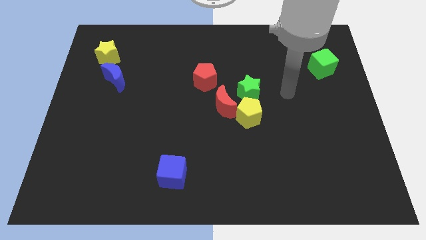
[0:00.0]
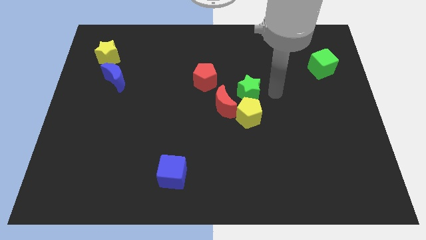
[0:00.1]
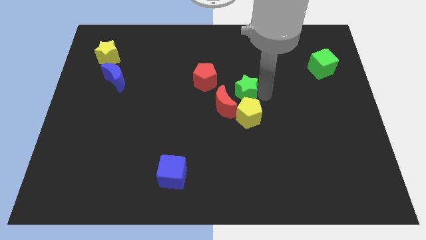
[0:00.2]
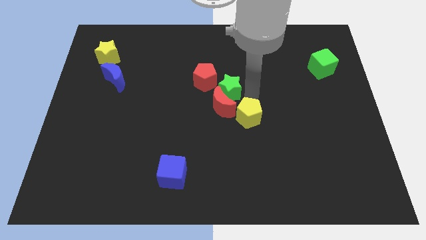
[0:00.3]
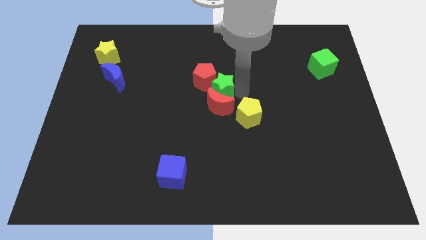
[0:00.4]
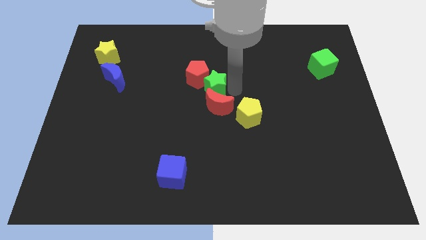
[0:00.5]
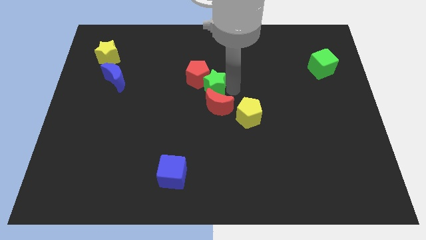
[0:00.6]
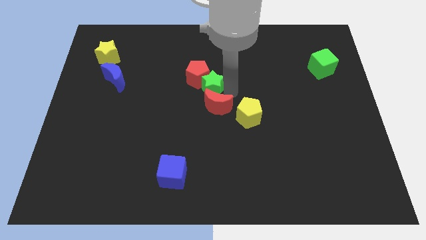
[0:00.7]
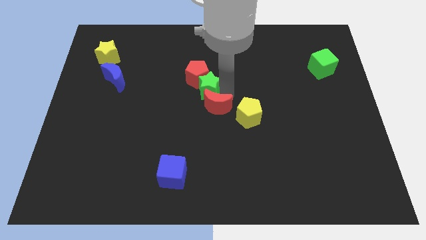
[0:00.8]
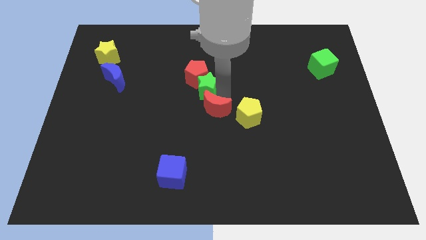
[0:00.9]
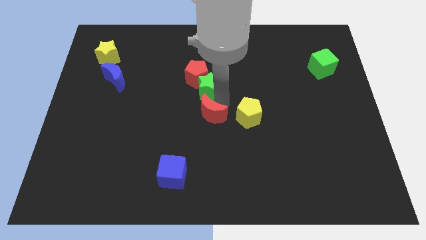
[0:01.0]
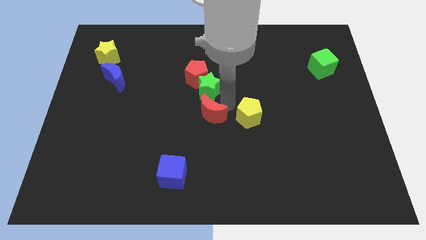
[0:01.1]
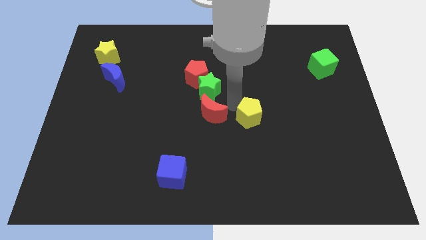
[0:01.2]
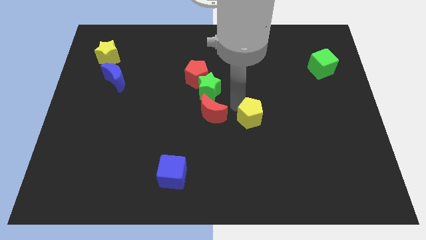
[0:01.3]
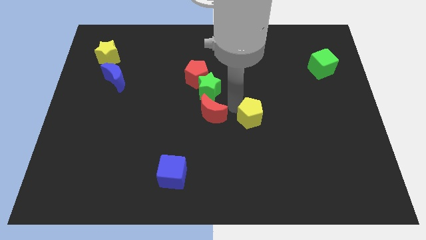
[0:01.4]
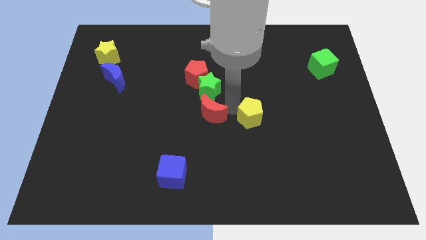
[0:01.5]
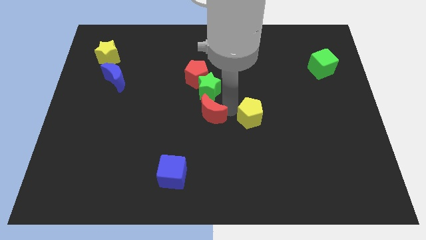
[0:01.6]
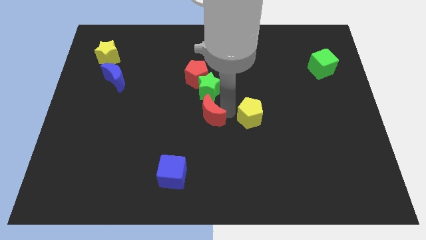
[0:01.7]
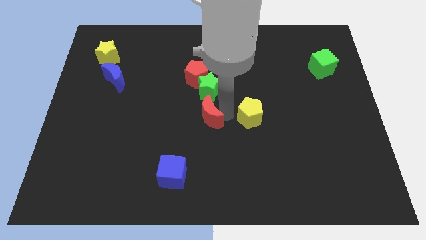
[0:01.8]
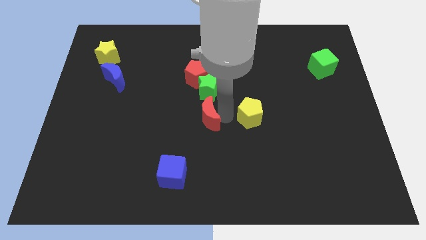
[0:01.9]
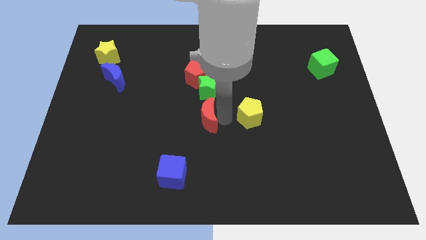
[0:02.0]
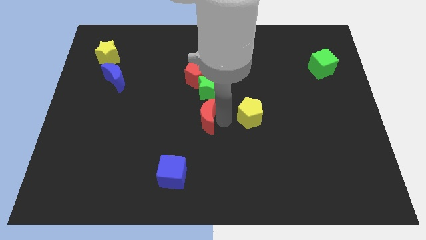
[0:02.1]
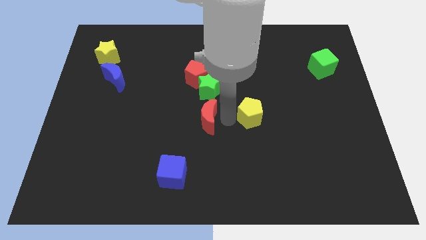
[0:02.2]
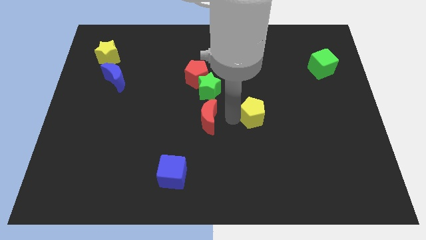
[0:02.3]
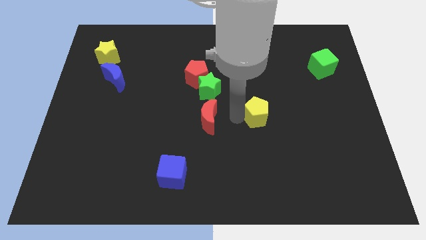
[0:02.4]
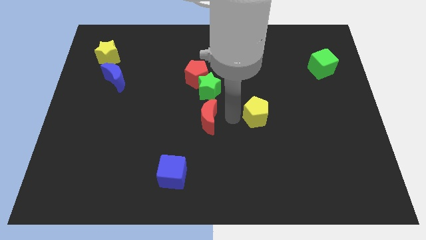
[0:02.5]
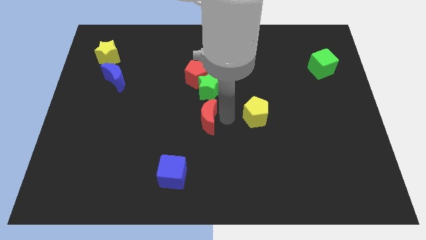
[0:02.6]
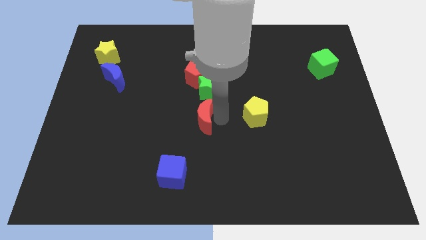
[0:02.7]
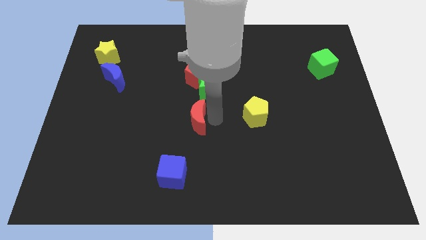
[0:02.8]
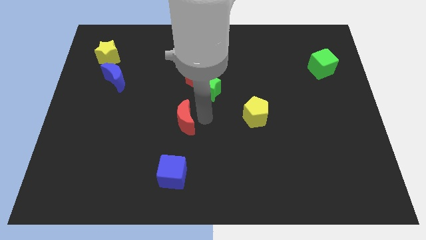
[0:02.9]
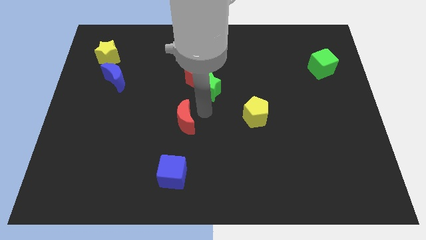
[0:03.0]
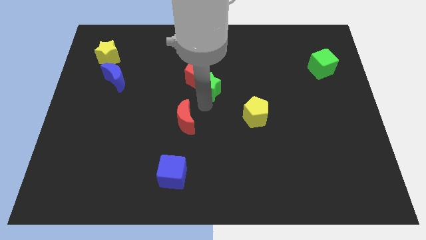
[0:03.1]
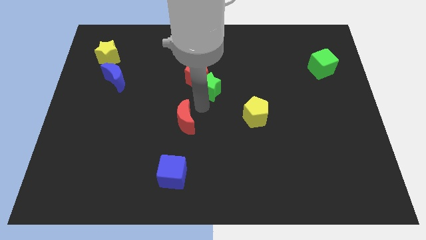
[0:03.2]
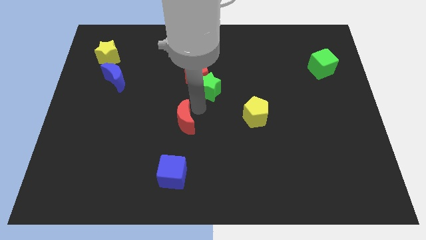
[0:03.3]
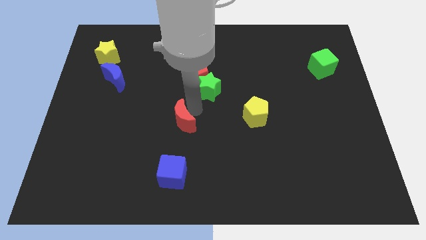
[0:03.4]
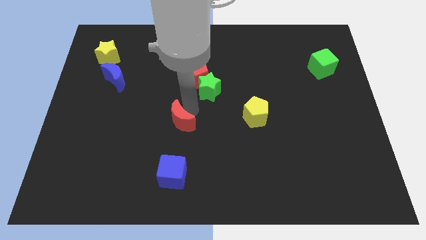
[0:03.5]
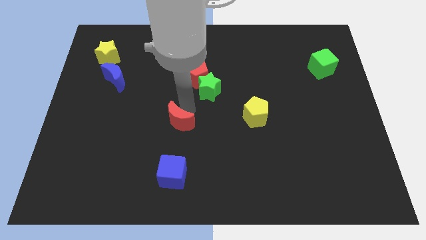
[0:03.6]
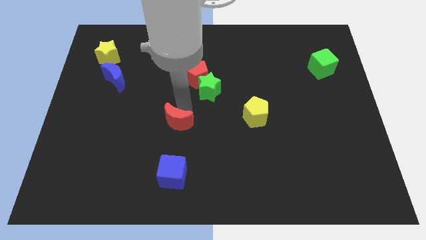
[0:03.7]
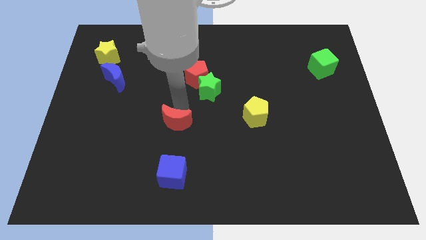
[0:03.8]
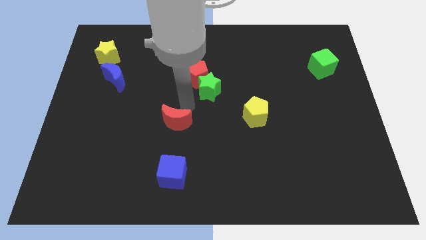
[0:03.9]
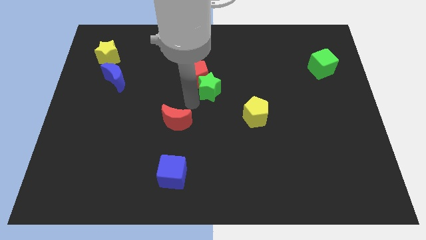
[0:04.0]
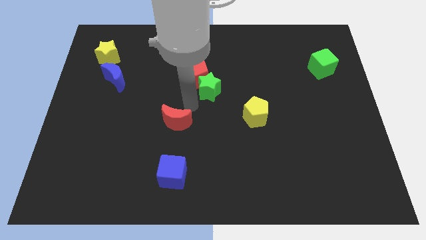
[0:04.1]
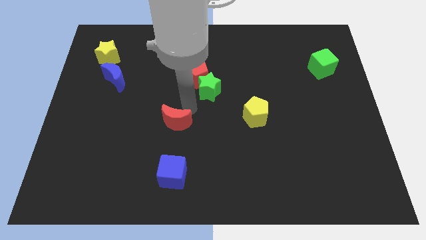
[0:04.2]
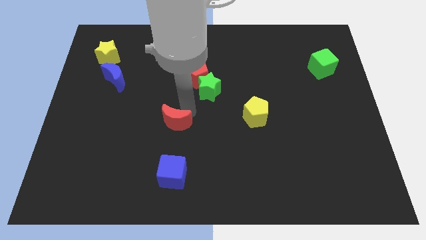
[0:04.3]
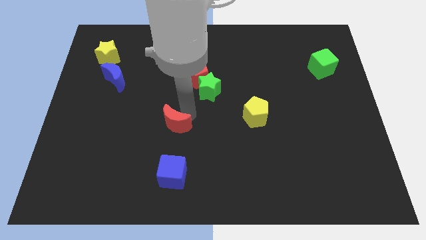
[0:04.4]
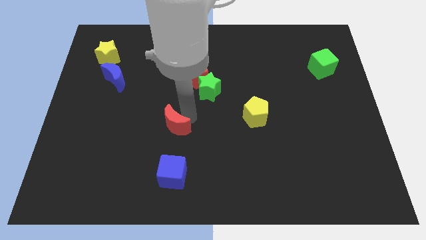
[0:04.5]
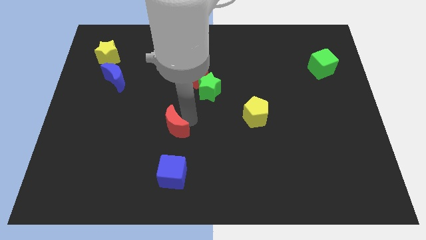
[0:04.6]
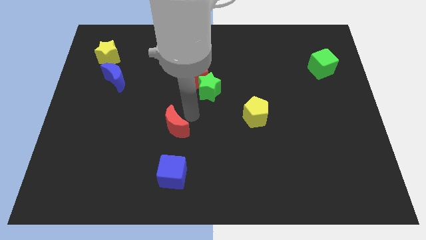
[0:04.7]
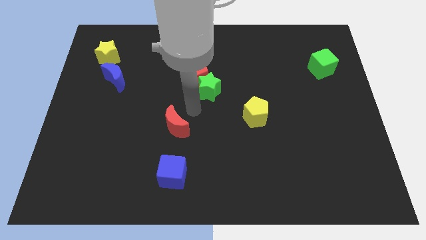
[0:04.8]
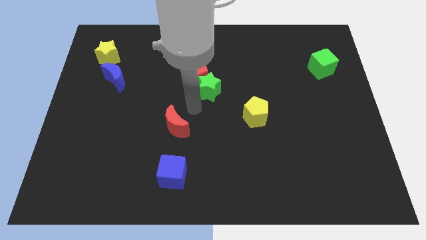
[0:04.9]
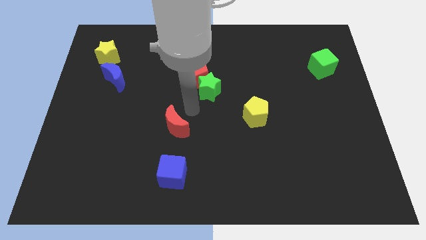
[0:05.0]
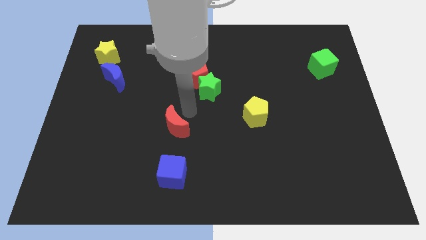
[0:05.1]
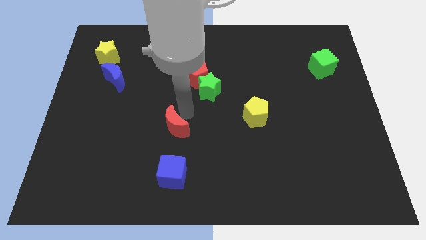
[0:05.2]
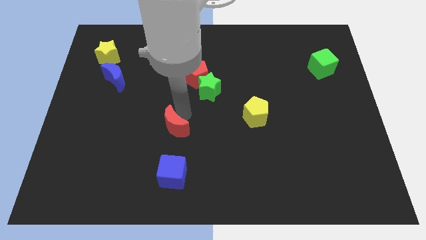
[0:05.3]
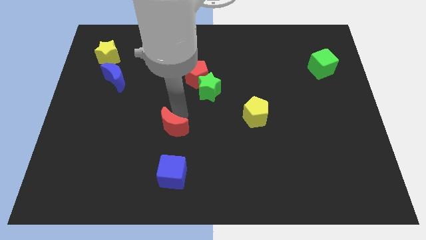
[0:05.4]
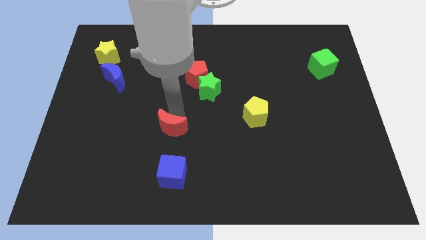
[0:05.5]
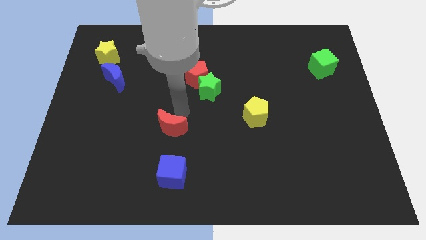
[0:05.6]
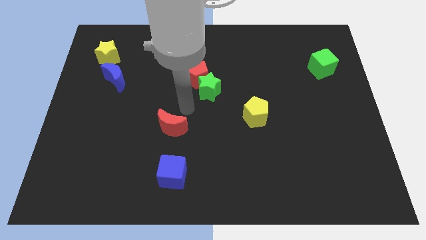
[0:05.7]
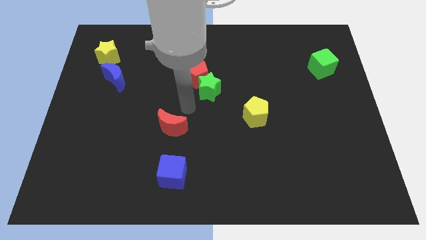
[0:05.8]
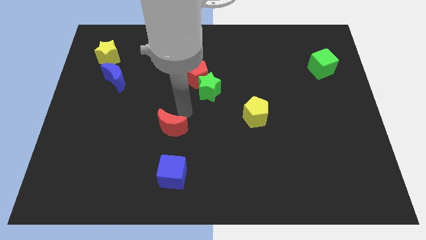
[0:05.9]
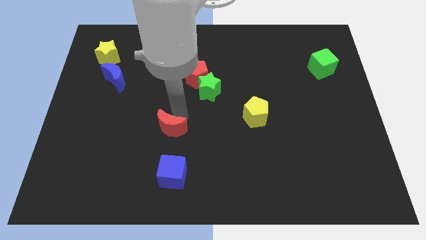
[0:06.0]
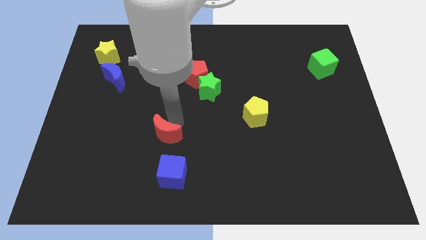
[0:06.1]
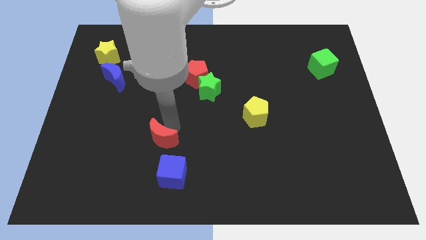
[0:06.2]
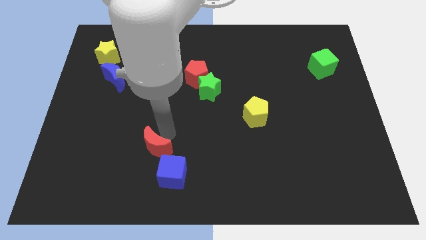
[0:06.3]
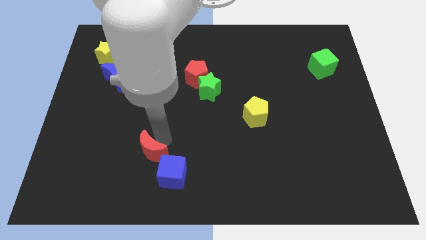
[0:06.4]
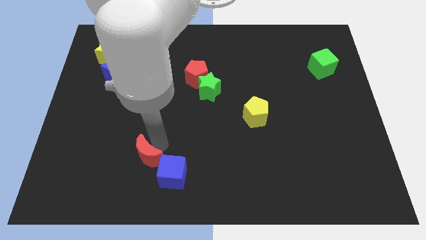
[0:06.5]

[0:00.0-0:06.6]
slide the red moon to the left of the blue cube
